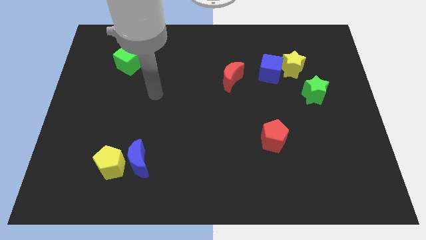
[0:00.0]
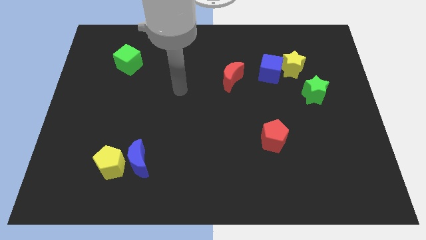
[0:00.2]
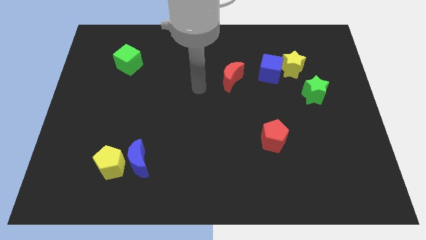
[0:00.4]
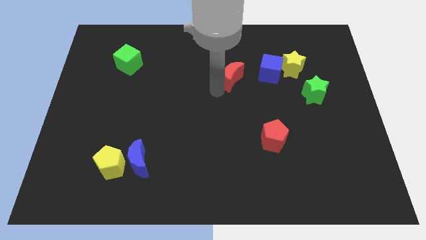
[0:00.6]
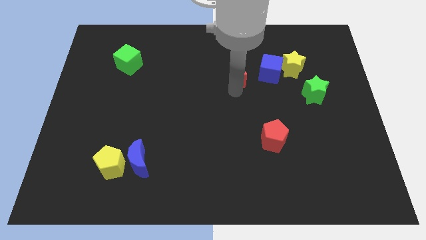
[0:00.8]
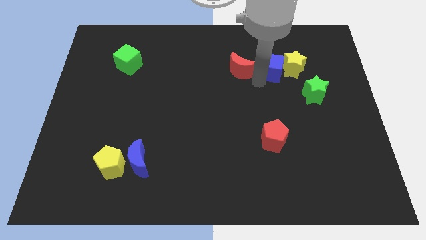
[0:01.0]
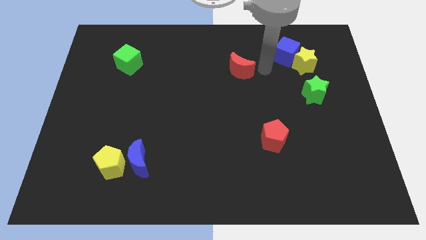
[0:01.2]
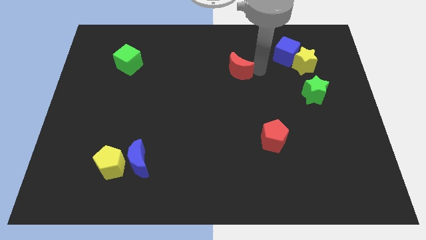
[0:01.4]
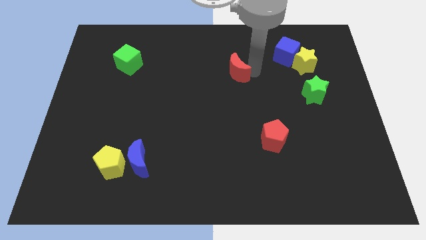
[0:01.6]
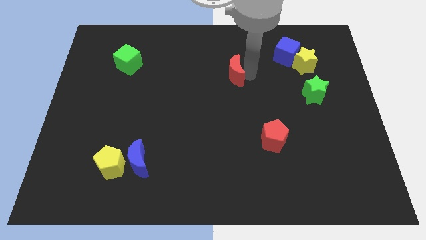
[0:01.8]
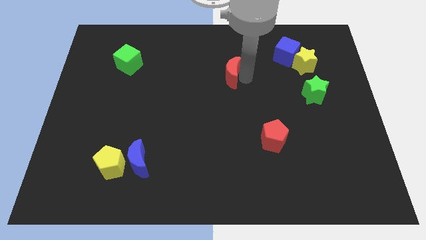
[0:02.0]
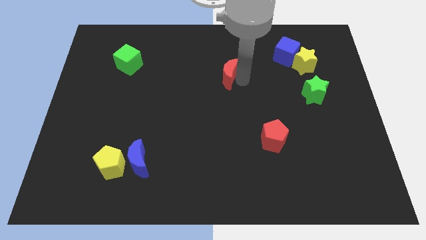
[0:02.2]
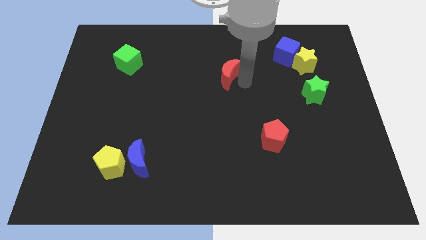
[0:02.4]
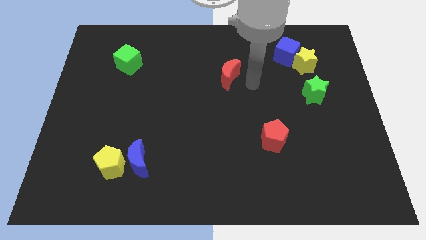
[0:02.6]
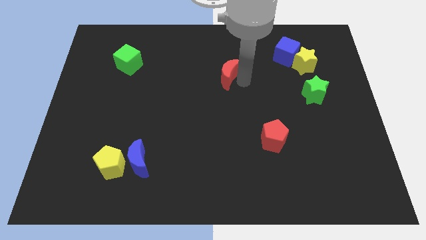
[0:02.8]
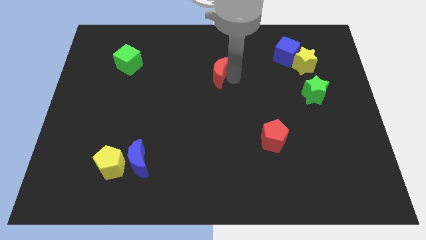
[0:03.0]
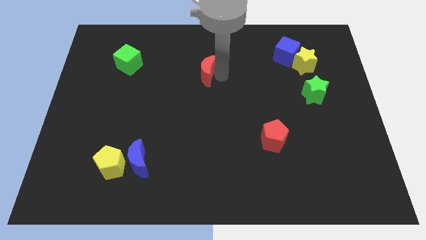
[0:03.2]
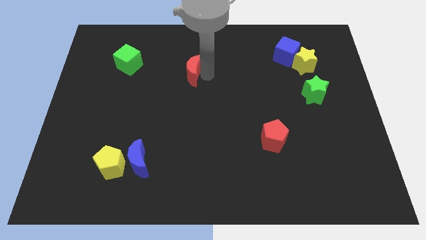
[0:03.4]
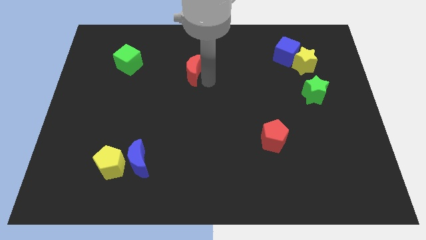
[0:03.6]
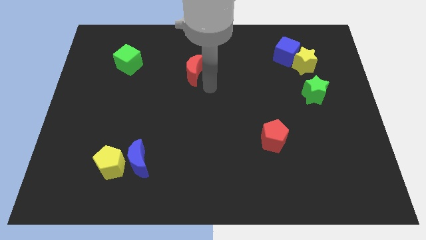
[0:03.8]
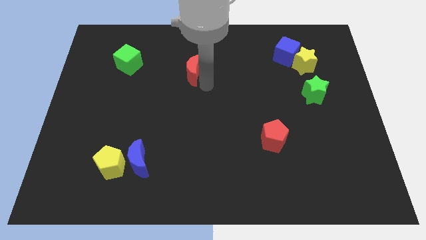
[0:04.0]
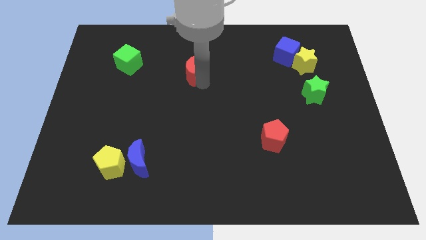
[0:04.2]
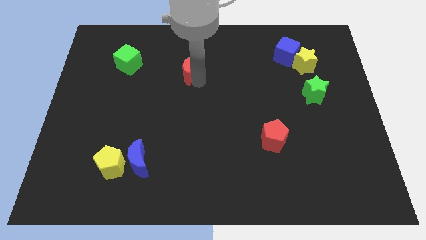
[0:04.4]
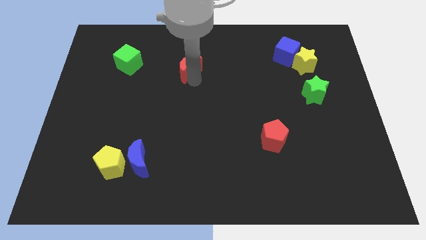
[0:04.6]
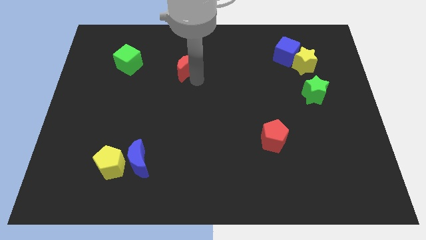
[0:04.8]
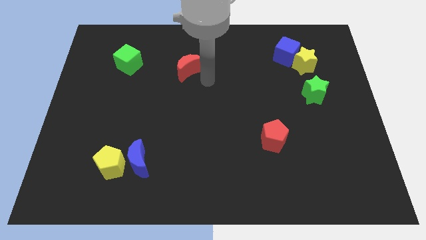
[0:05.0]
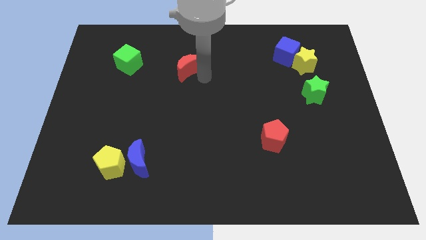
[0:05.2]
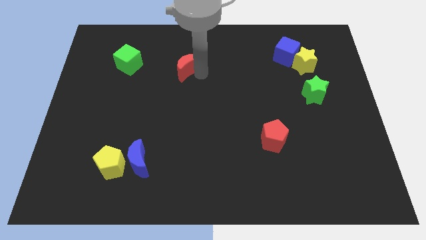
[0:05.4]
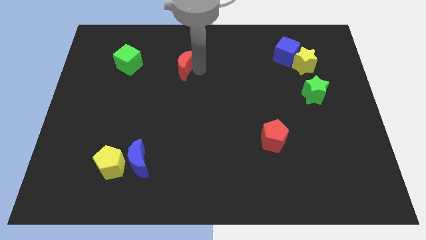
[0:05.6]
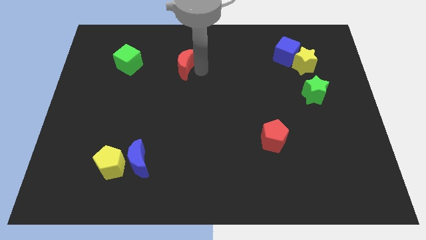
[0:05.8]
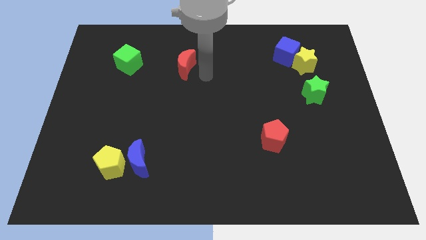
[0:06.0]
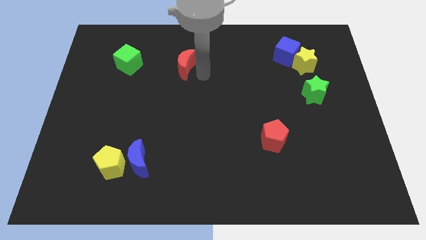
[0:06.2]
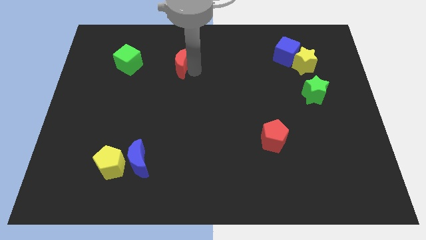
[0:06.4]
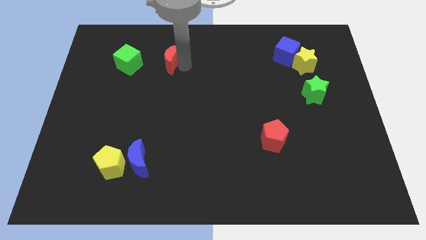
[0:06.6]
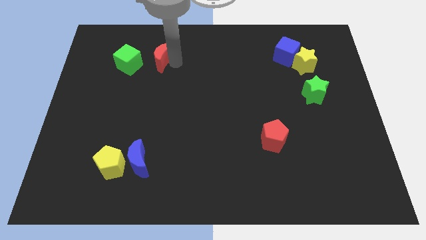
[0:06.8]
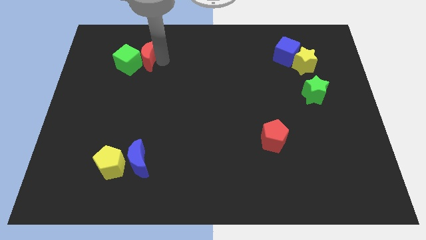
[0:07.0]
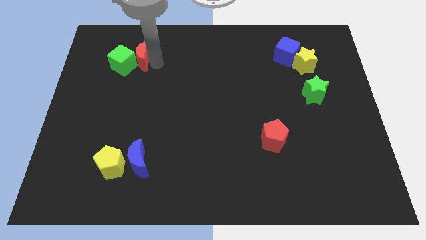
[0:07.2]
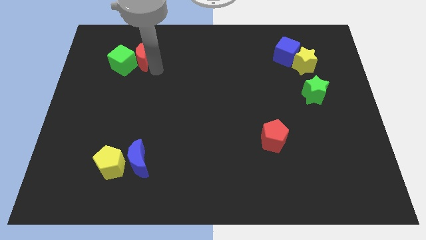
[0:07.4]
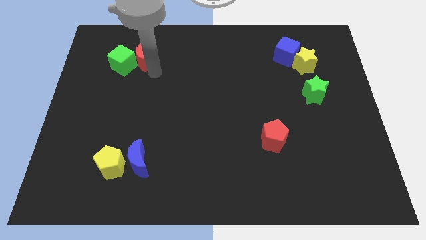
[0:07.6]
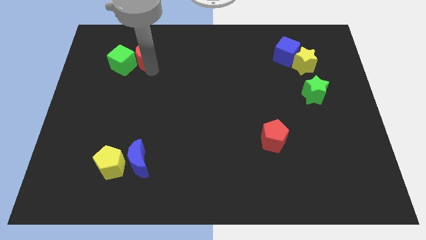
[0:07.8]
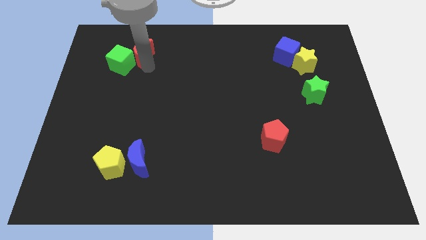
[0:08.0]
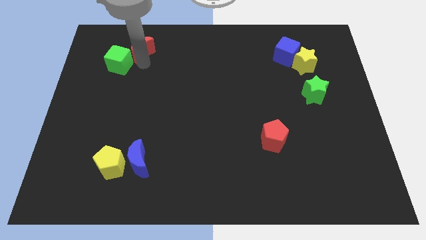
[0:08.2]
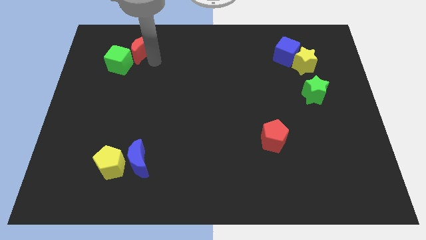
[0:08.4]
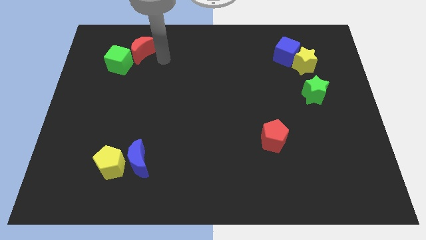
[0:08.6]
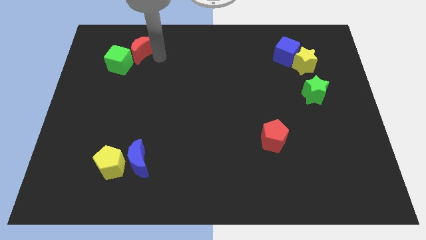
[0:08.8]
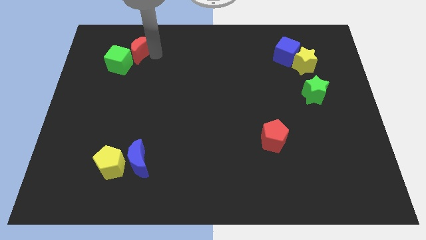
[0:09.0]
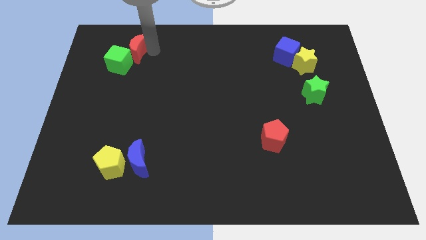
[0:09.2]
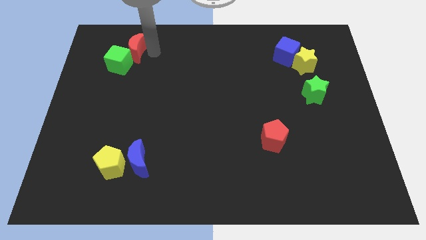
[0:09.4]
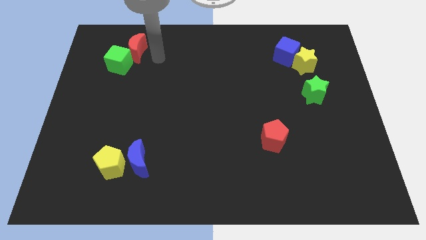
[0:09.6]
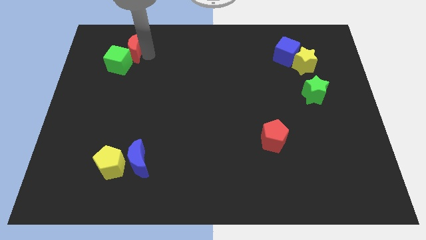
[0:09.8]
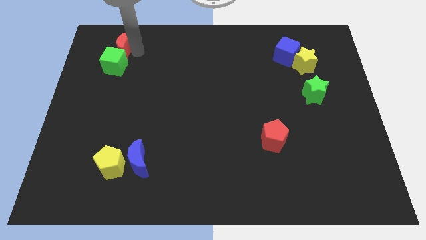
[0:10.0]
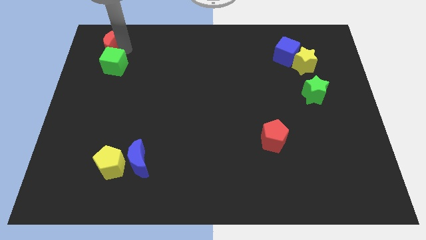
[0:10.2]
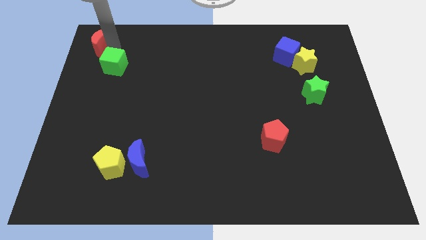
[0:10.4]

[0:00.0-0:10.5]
put the red moon to the upper left corner

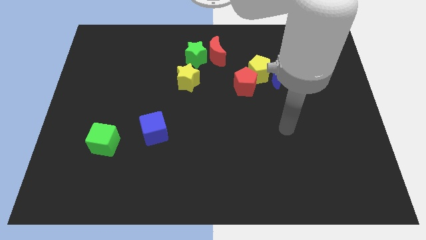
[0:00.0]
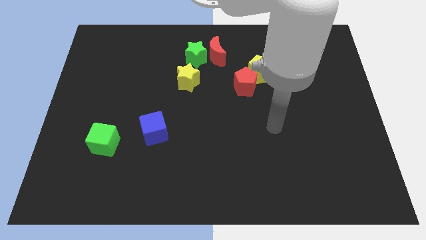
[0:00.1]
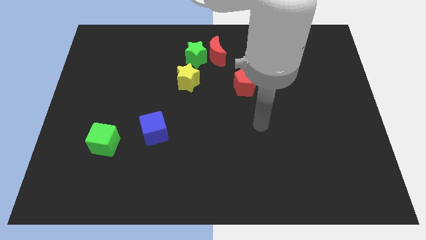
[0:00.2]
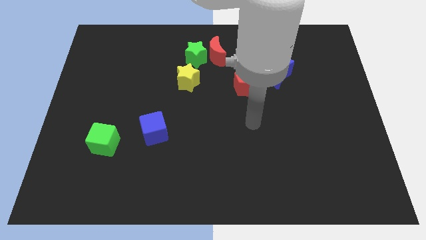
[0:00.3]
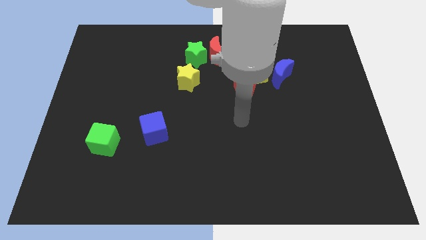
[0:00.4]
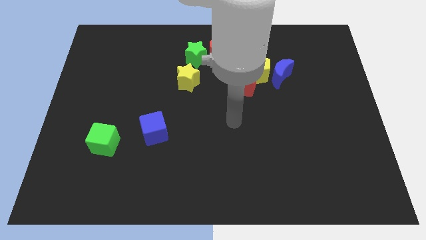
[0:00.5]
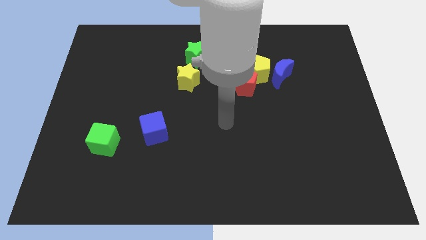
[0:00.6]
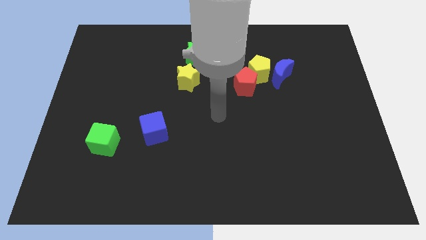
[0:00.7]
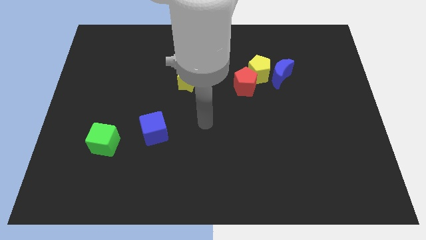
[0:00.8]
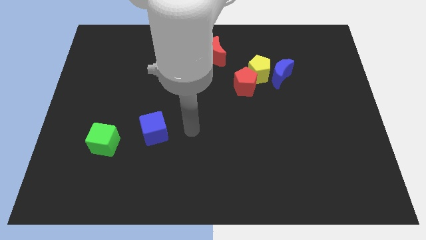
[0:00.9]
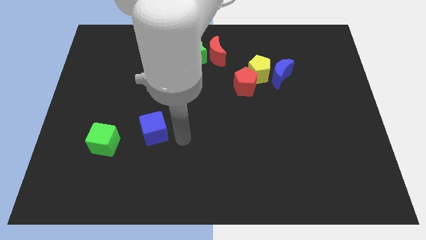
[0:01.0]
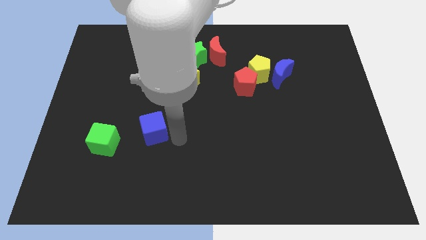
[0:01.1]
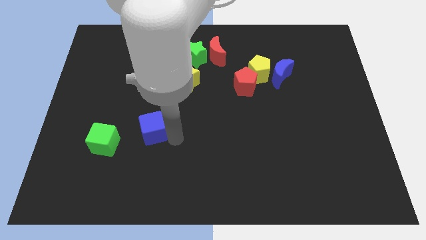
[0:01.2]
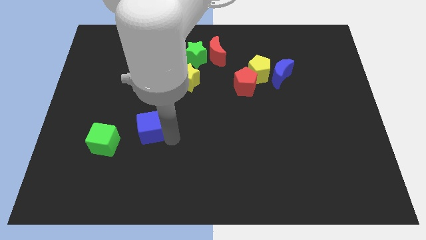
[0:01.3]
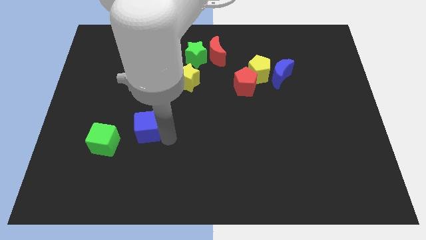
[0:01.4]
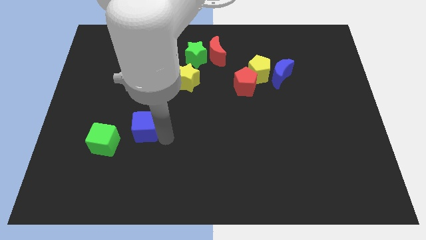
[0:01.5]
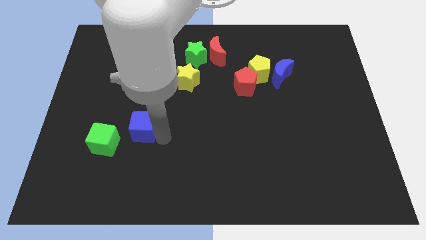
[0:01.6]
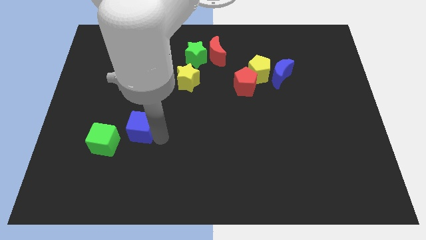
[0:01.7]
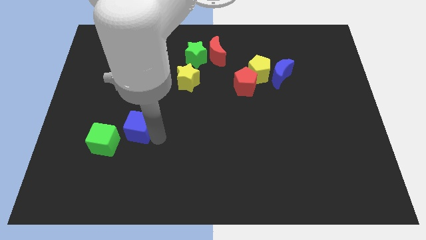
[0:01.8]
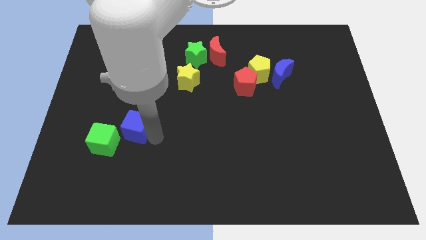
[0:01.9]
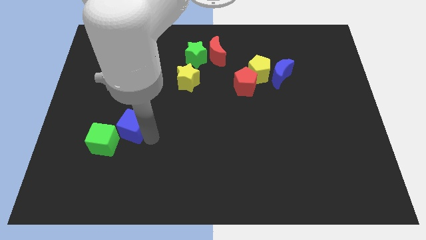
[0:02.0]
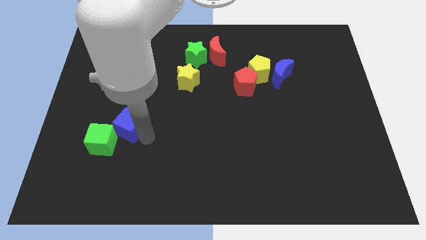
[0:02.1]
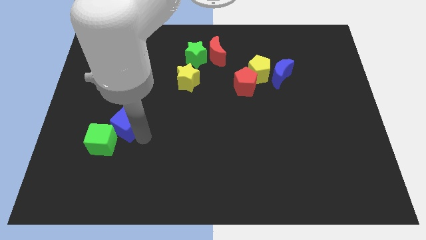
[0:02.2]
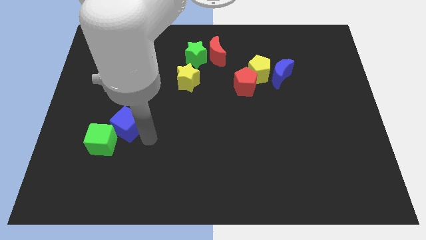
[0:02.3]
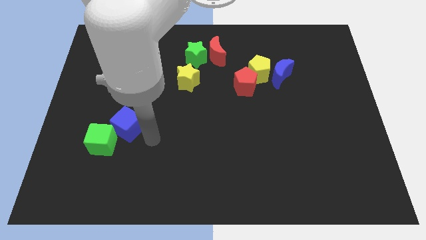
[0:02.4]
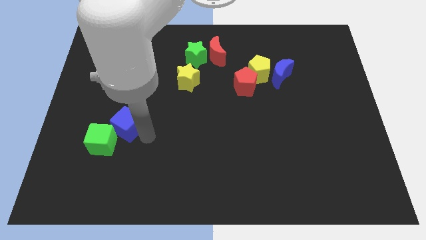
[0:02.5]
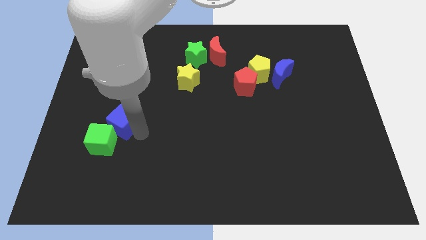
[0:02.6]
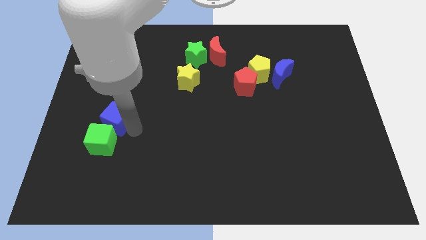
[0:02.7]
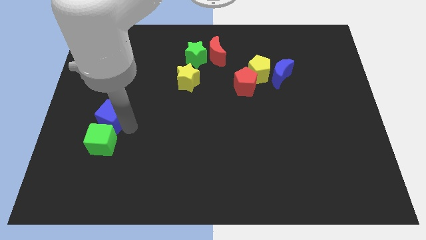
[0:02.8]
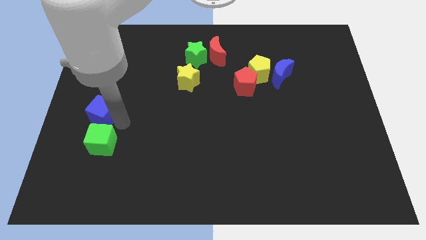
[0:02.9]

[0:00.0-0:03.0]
move the blue cube to the left side of the board
